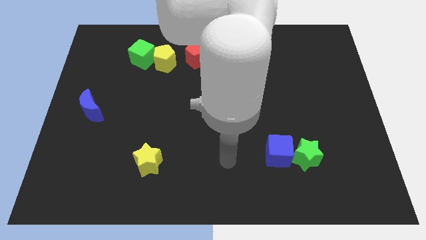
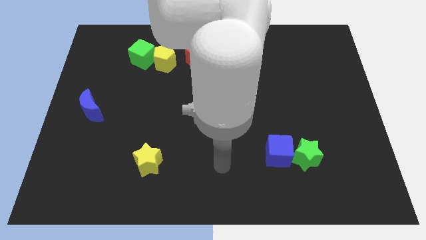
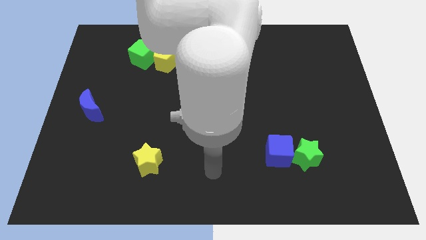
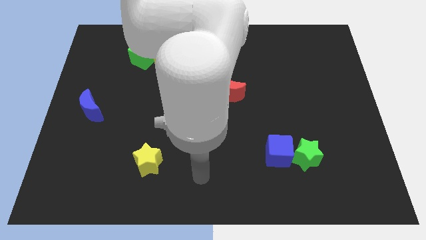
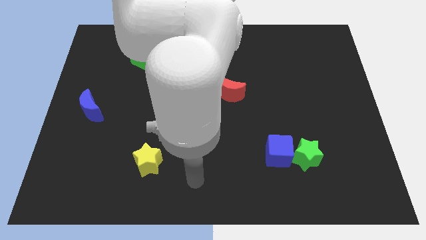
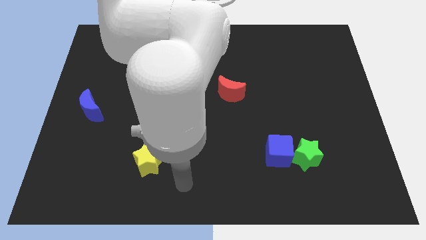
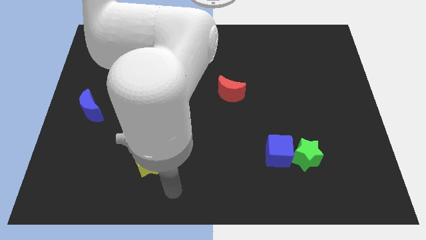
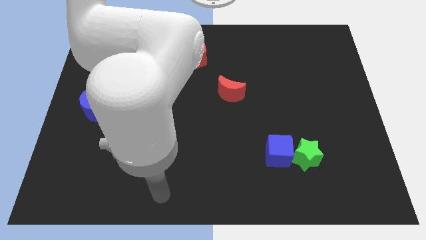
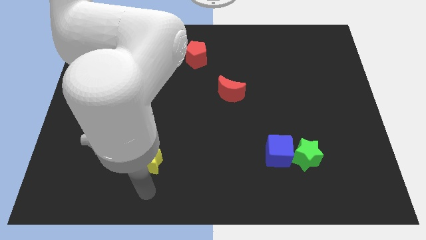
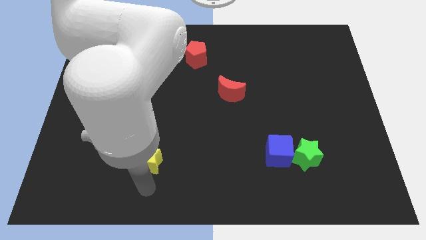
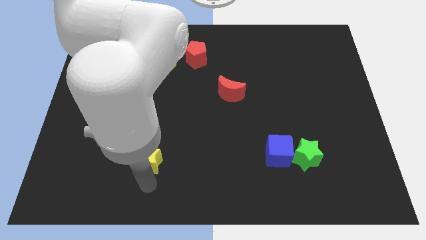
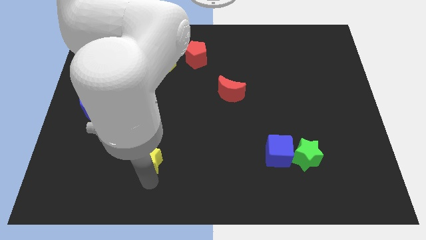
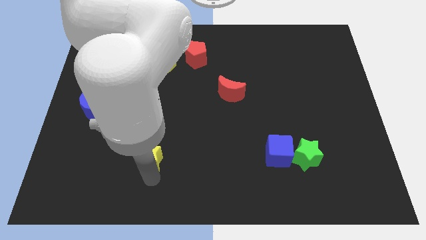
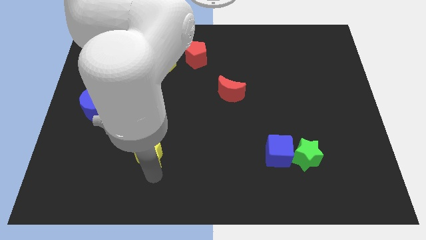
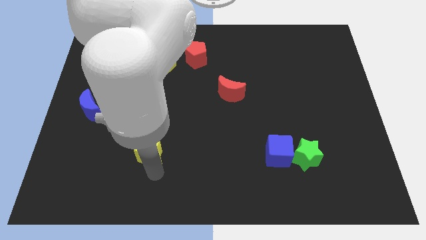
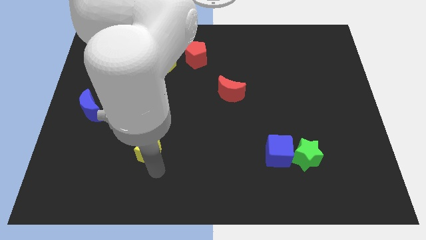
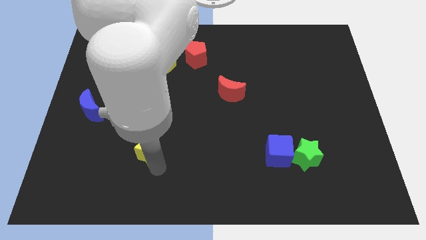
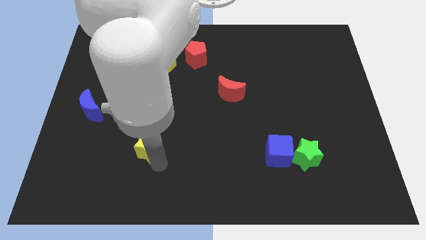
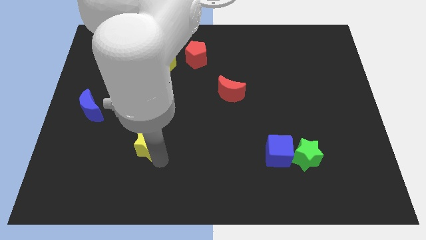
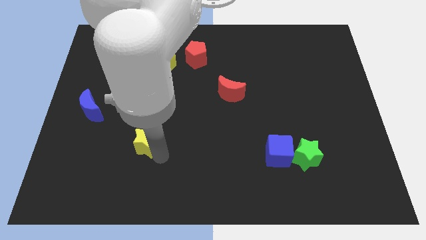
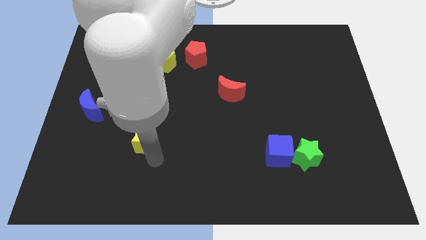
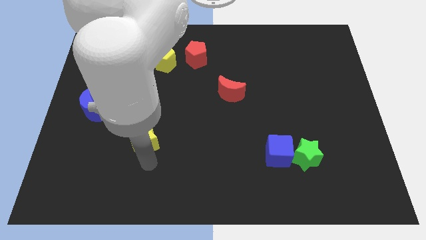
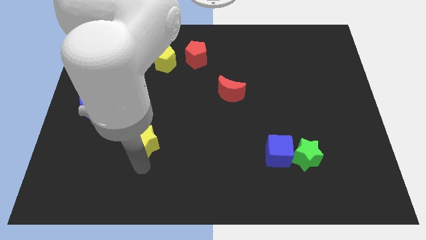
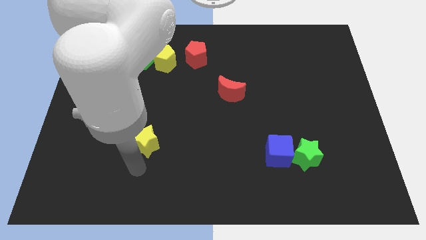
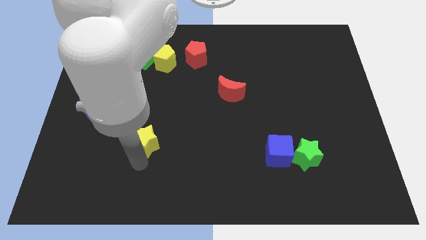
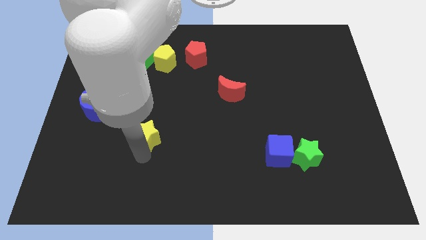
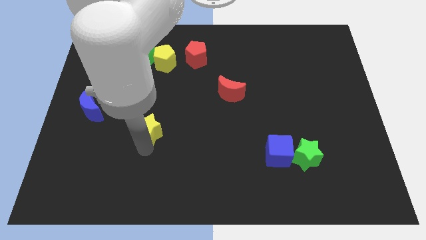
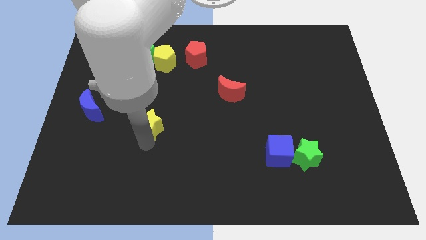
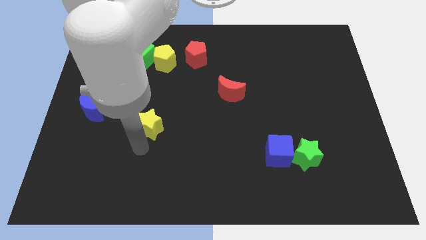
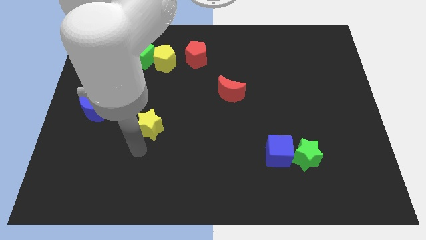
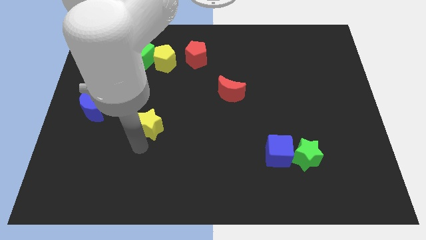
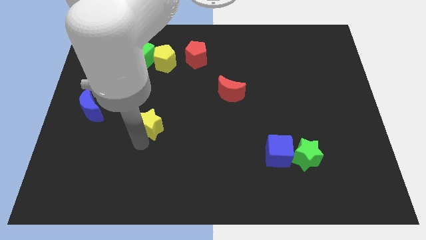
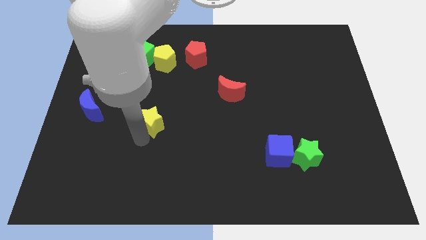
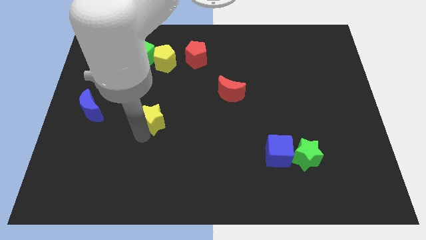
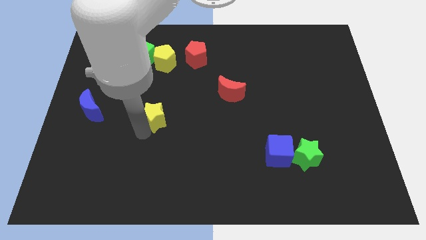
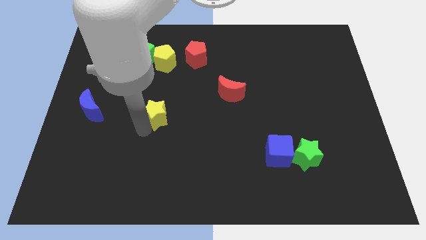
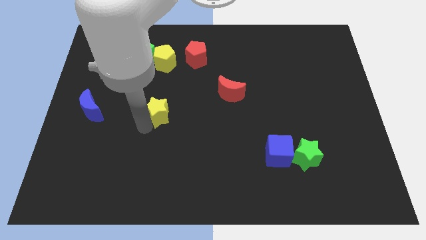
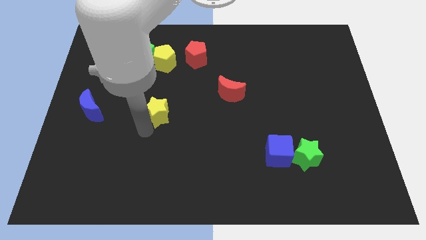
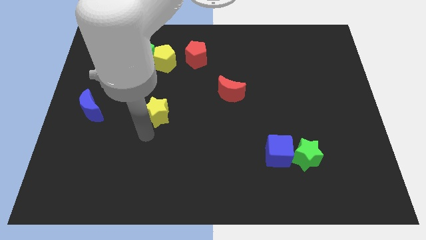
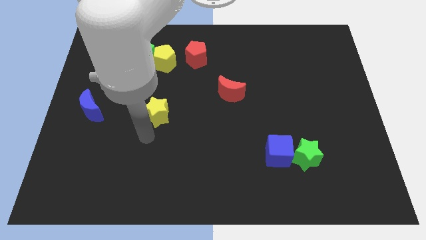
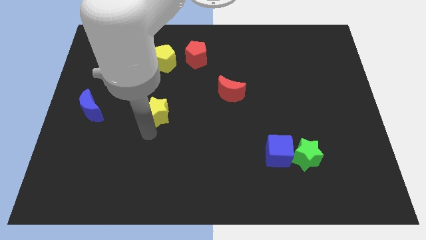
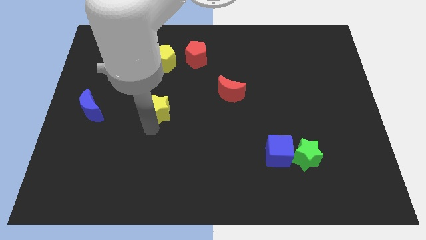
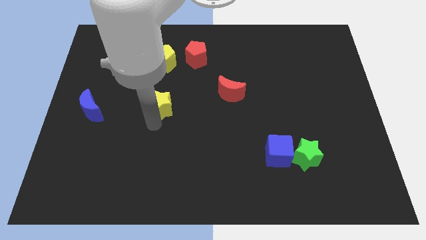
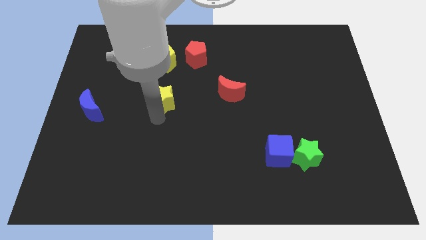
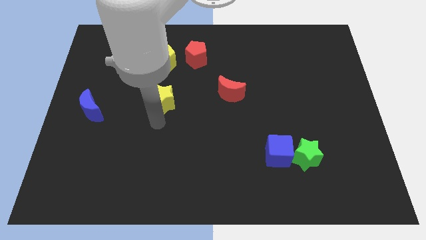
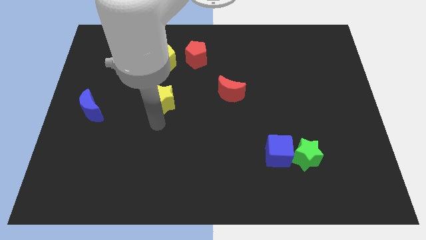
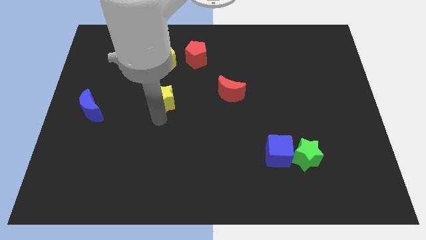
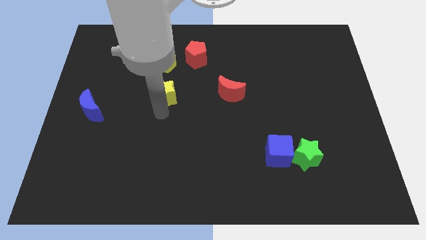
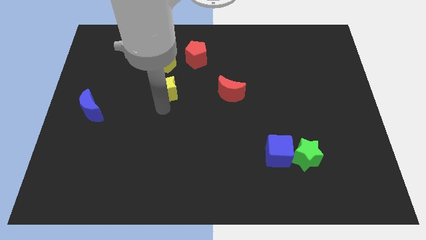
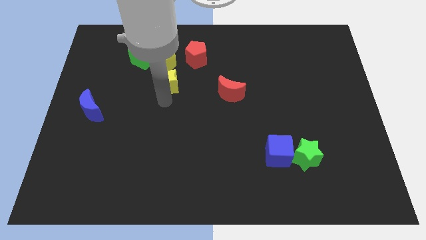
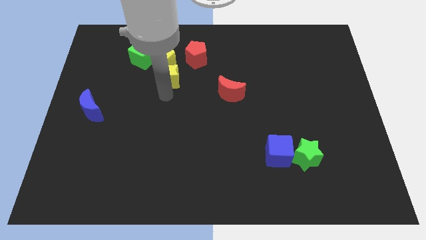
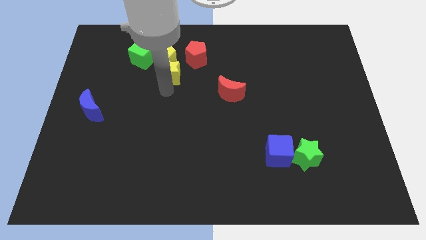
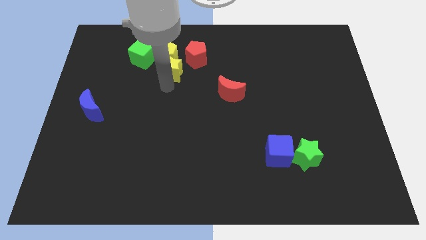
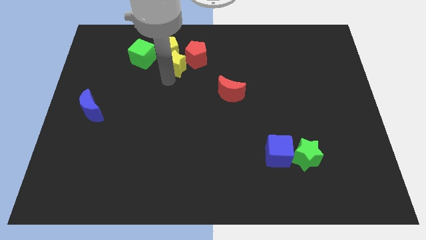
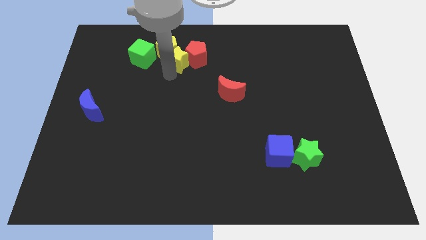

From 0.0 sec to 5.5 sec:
move the yellow star to the red pentagon

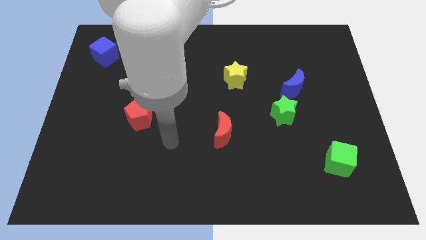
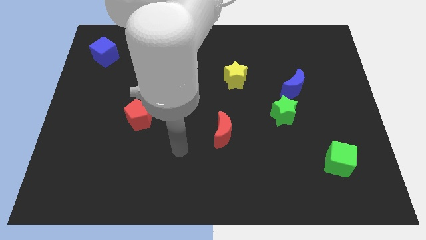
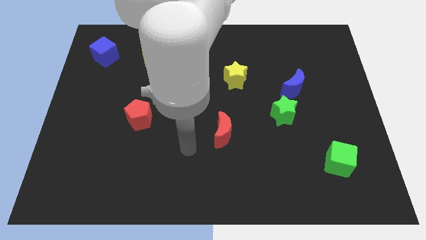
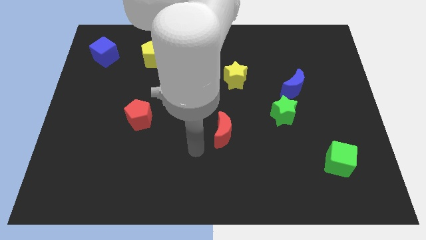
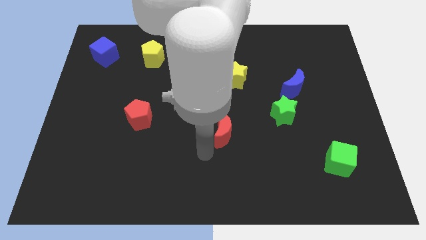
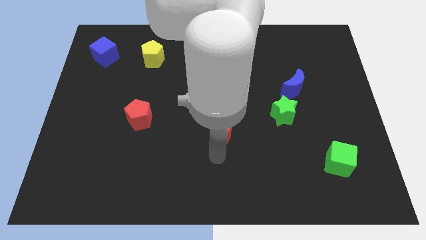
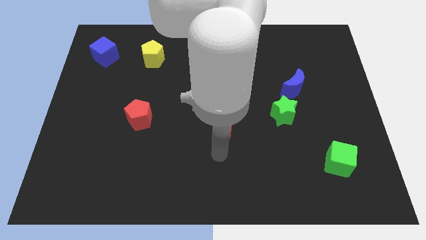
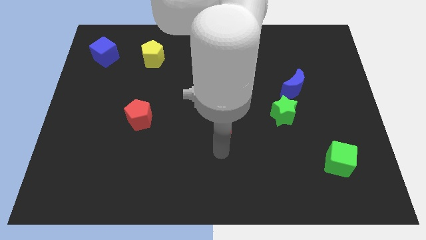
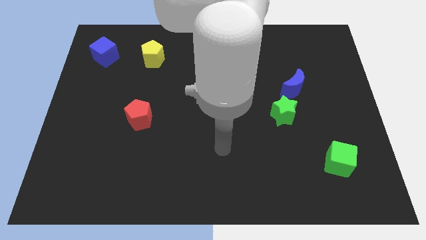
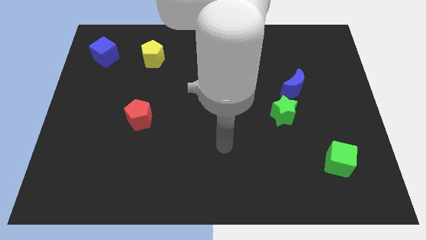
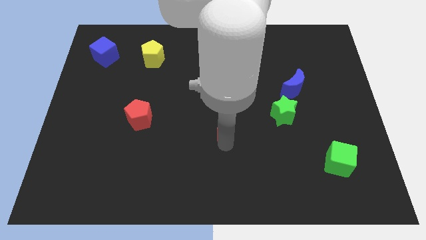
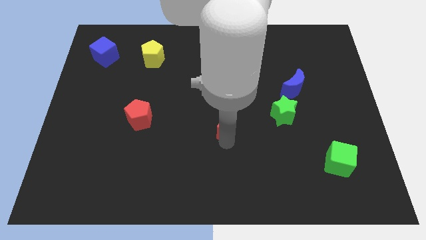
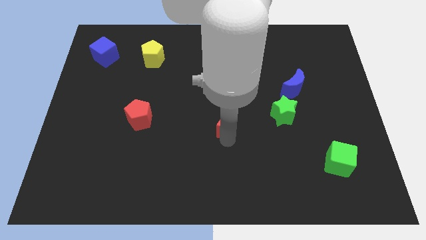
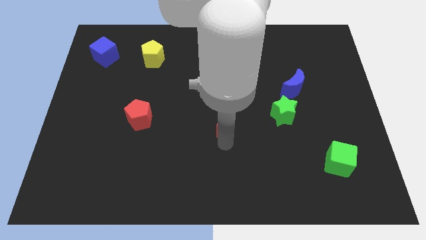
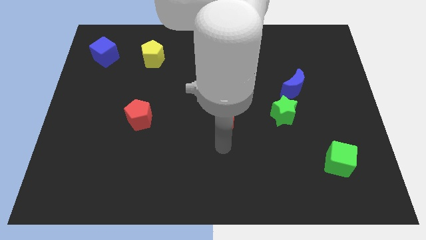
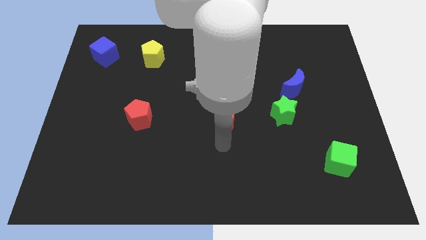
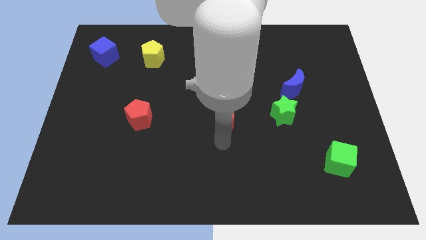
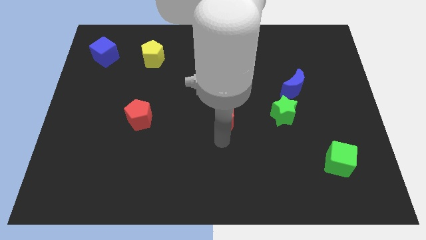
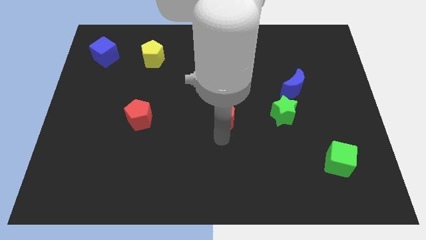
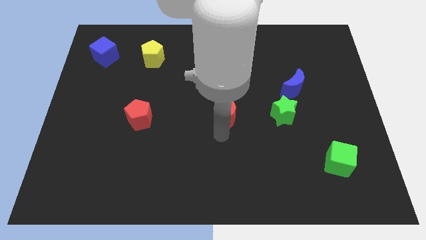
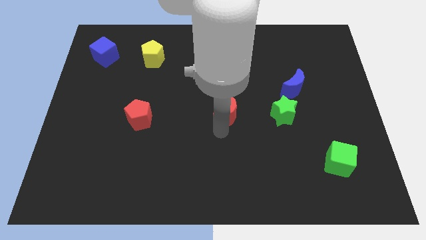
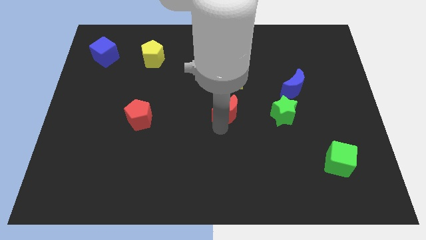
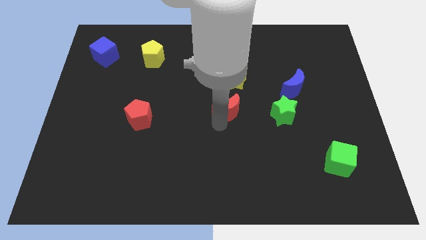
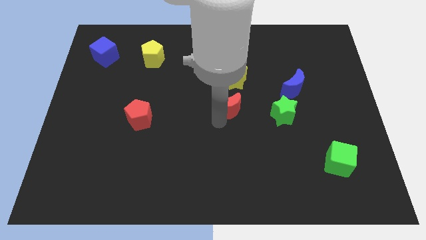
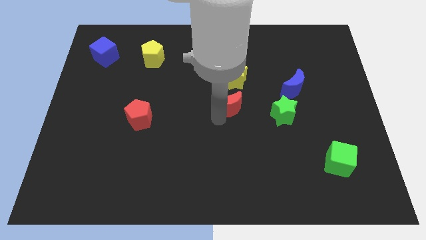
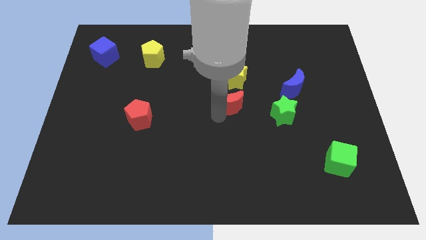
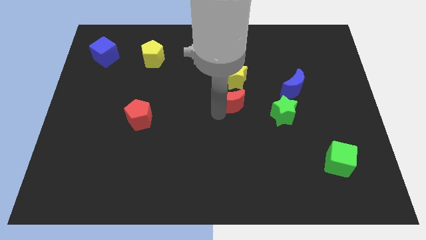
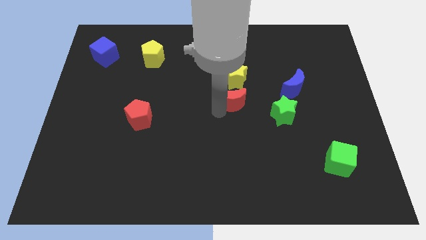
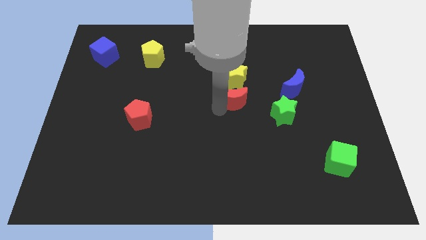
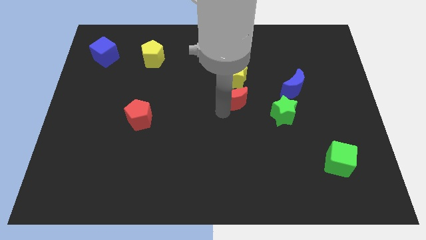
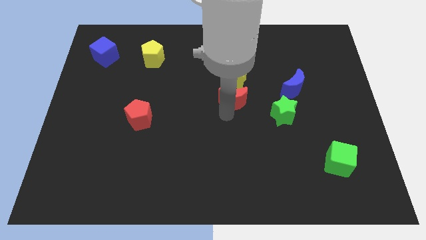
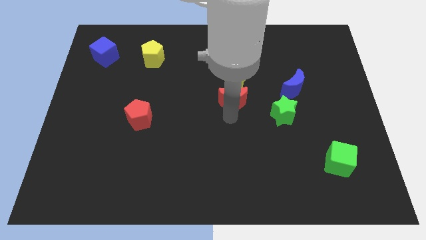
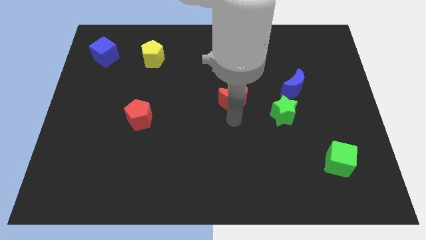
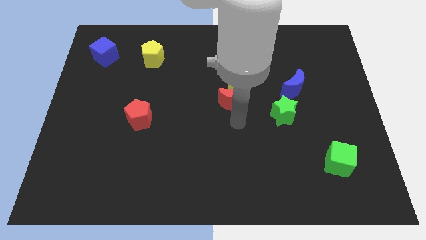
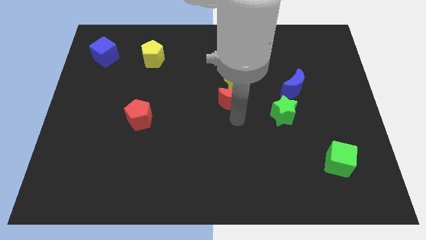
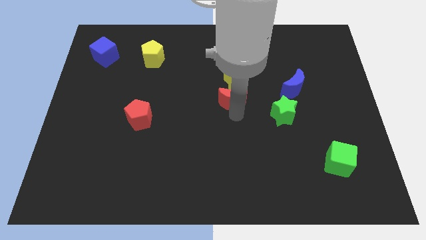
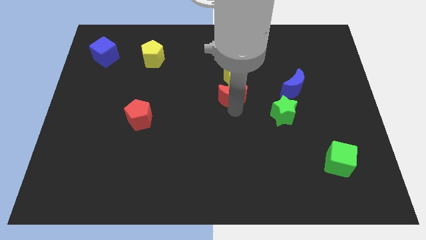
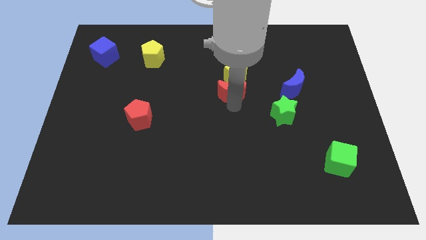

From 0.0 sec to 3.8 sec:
move the red moon towards the yellow star
